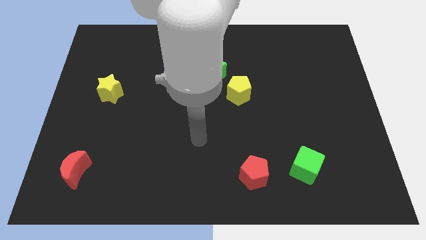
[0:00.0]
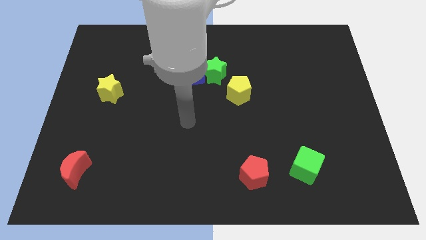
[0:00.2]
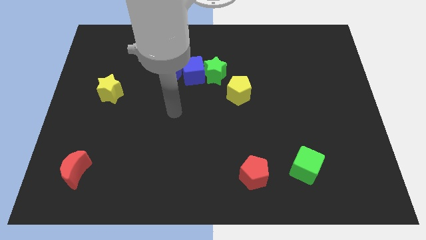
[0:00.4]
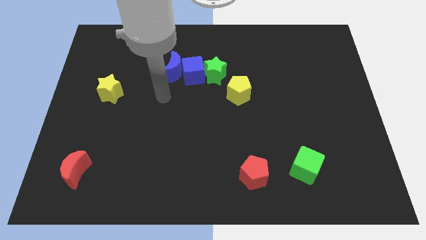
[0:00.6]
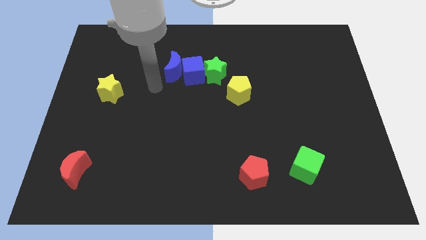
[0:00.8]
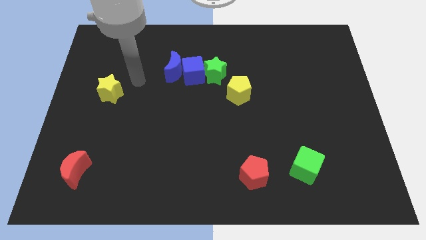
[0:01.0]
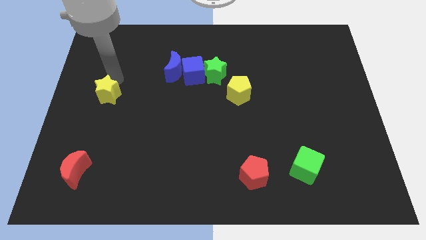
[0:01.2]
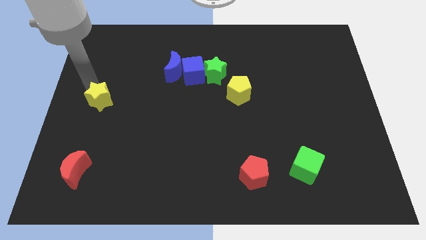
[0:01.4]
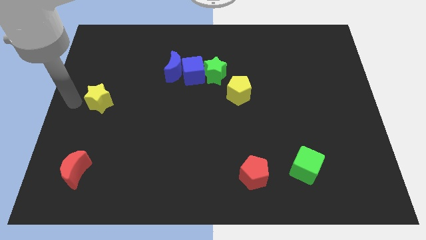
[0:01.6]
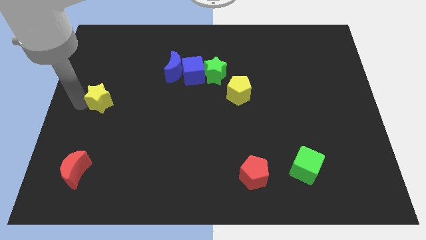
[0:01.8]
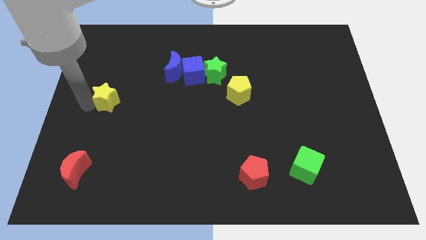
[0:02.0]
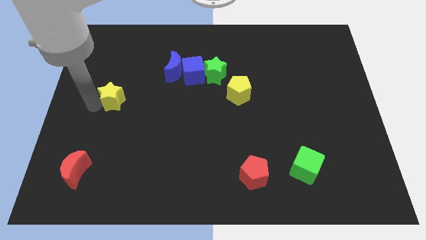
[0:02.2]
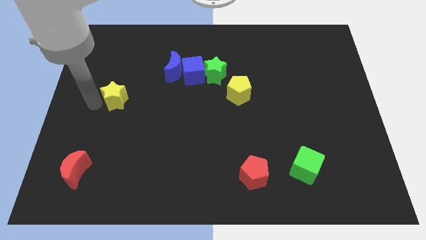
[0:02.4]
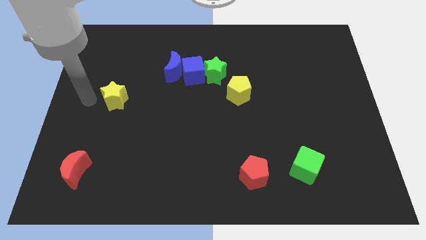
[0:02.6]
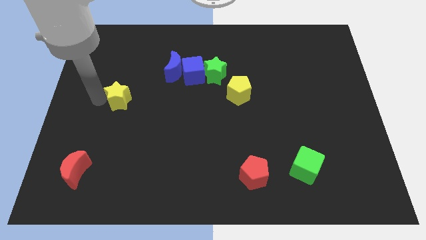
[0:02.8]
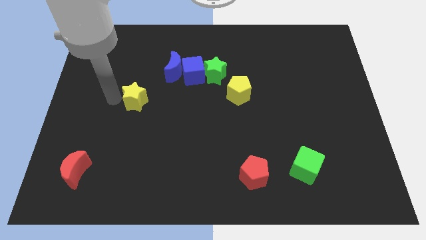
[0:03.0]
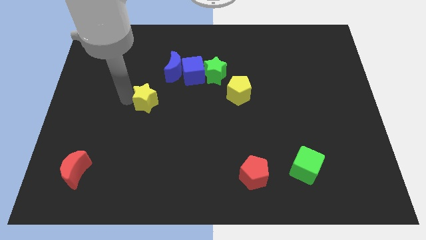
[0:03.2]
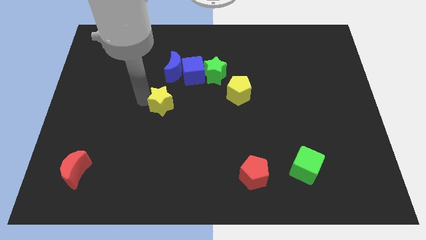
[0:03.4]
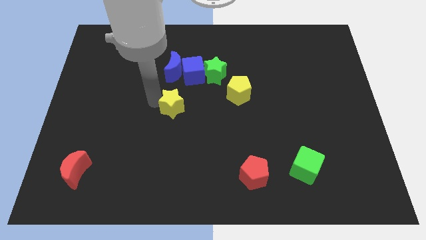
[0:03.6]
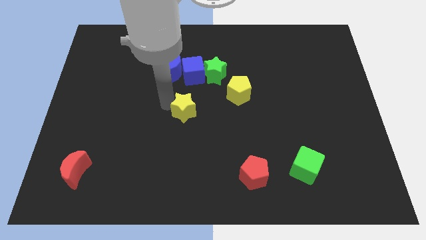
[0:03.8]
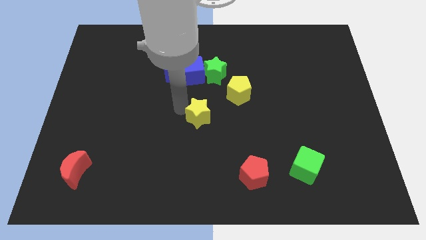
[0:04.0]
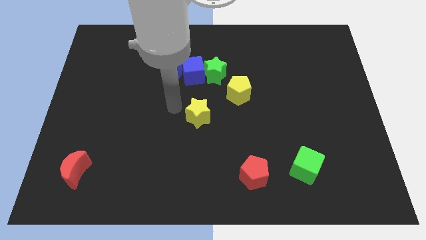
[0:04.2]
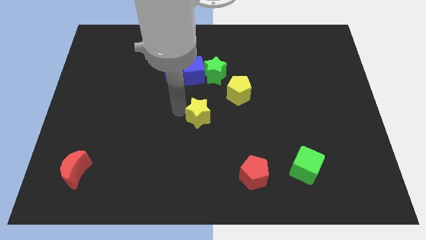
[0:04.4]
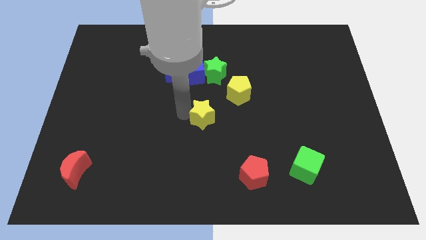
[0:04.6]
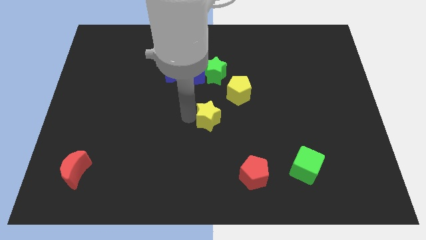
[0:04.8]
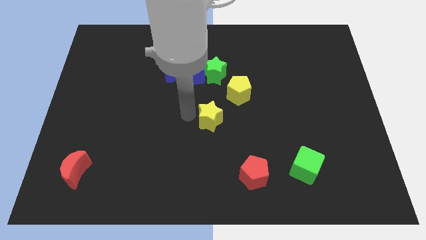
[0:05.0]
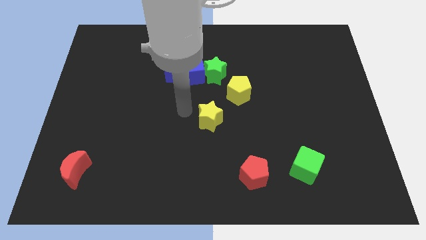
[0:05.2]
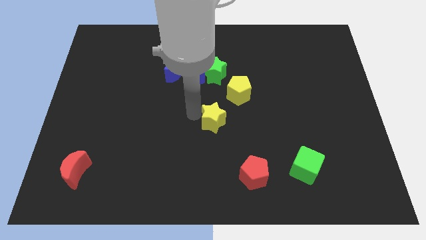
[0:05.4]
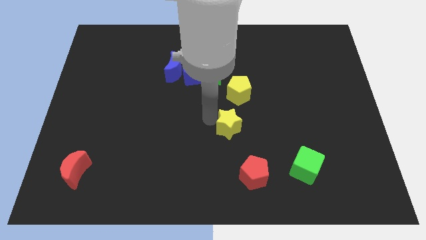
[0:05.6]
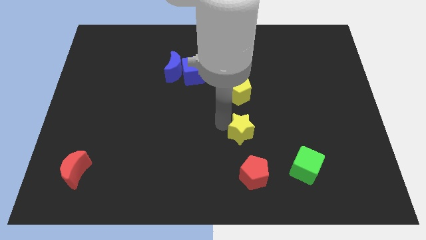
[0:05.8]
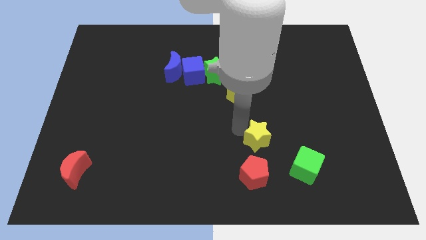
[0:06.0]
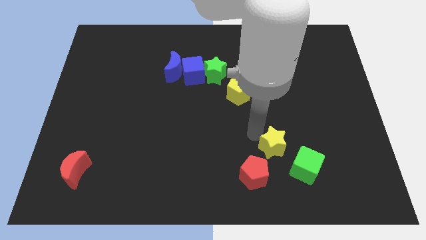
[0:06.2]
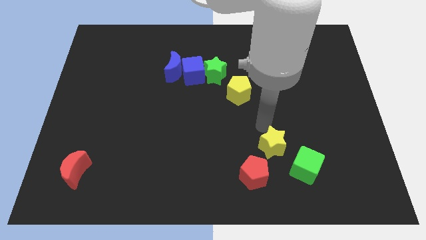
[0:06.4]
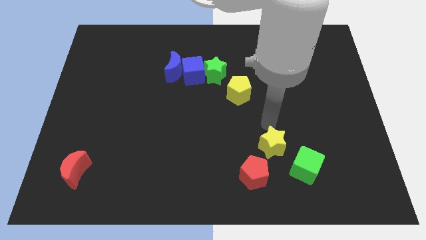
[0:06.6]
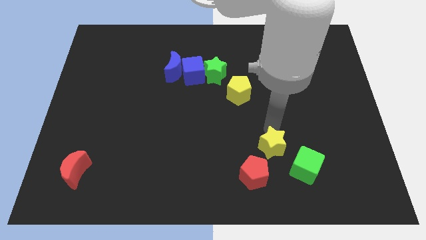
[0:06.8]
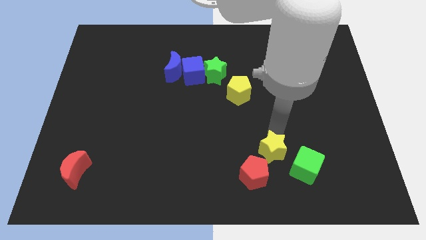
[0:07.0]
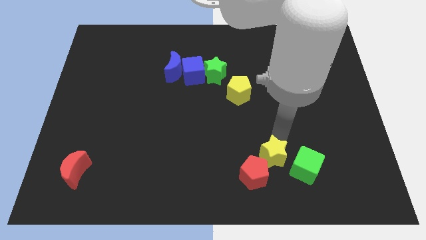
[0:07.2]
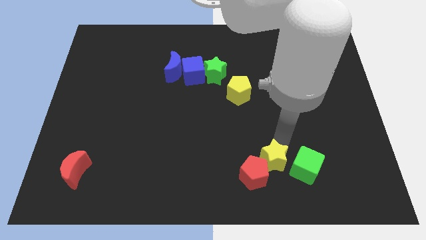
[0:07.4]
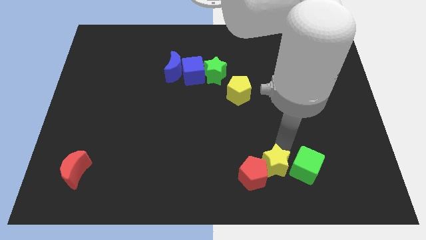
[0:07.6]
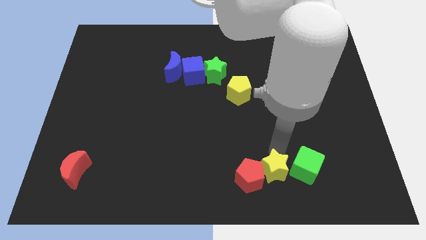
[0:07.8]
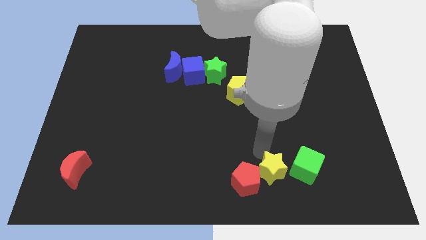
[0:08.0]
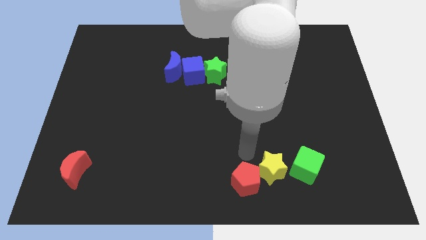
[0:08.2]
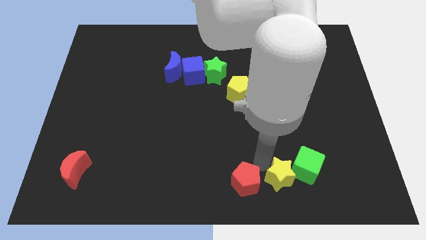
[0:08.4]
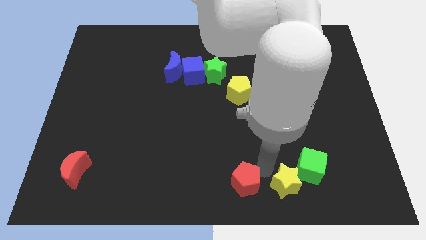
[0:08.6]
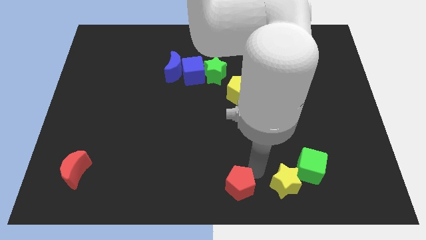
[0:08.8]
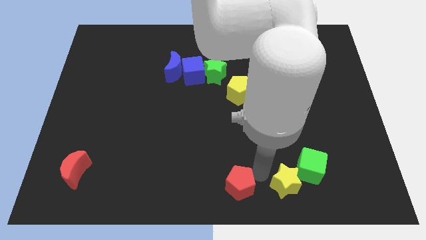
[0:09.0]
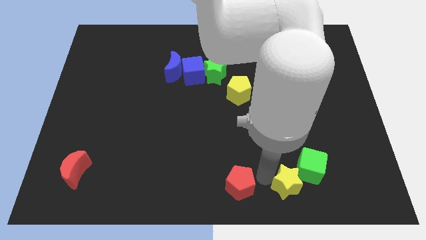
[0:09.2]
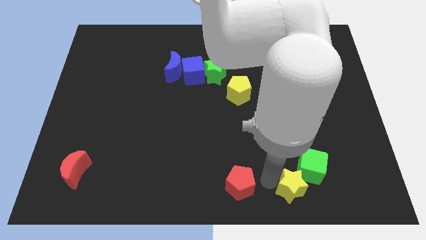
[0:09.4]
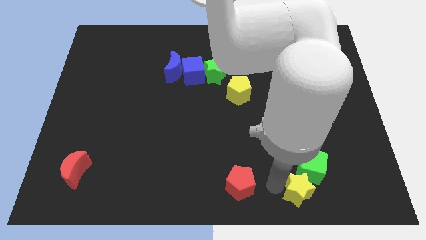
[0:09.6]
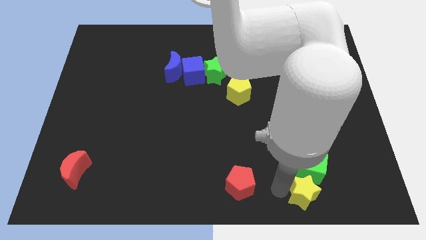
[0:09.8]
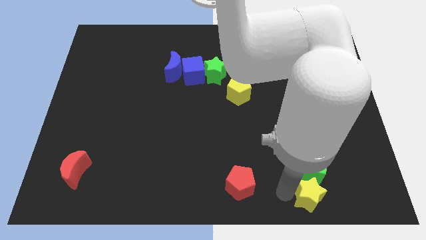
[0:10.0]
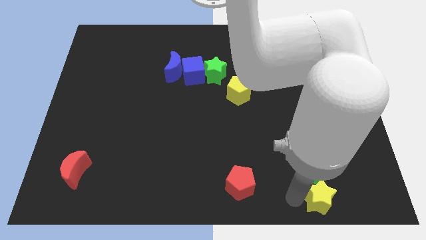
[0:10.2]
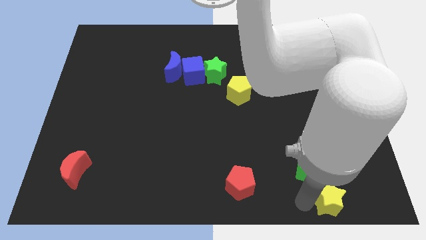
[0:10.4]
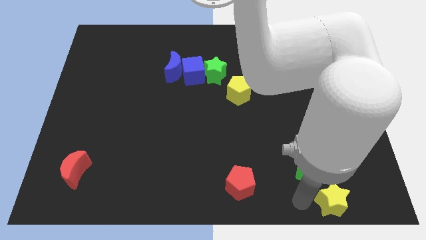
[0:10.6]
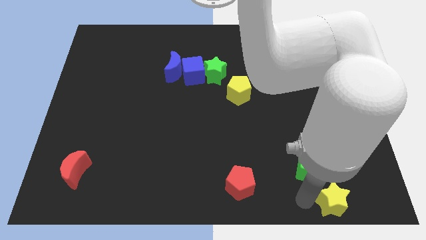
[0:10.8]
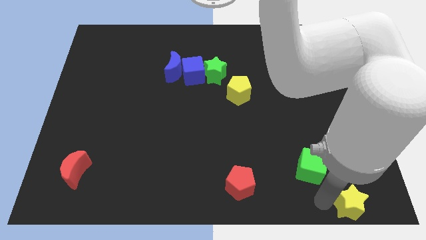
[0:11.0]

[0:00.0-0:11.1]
put the yellow star to the bottom right of the board

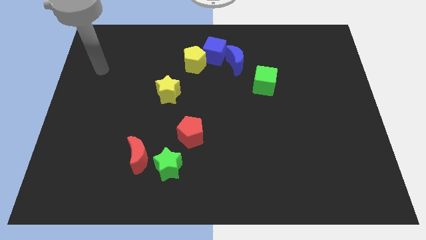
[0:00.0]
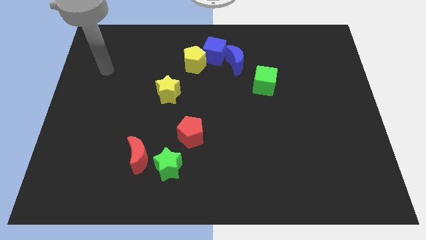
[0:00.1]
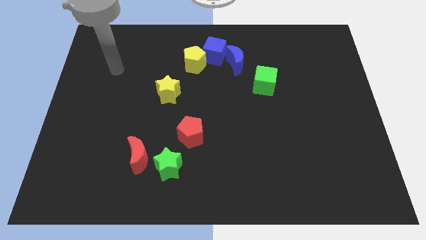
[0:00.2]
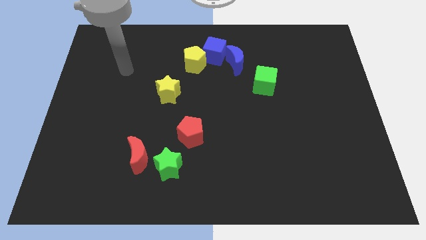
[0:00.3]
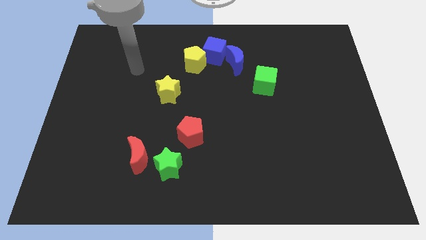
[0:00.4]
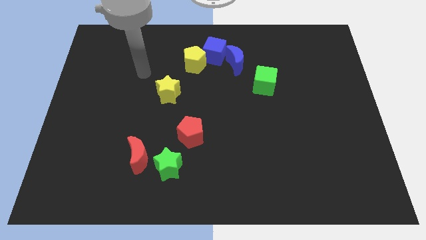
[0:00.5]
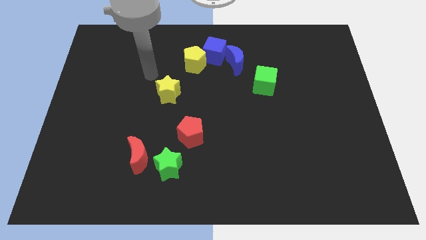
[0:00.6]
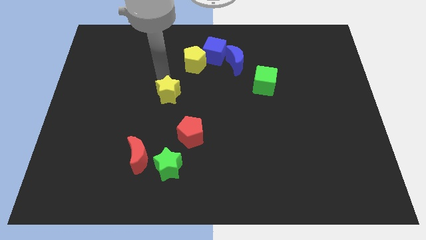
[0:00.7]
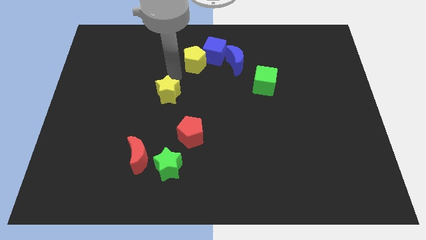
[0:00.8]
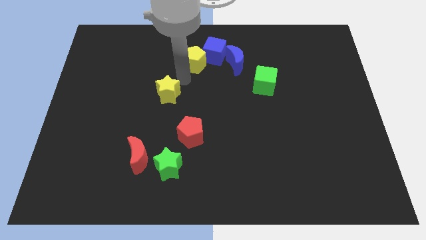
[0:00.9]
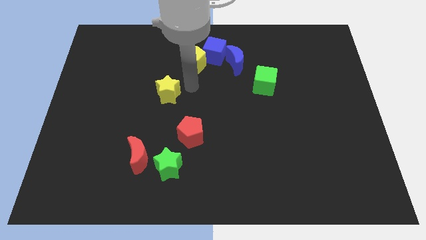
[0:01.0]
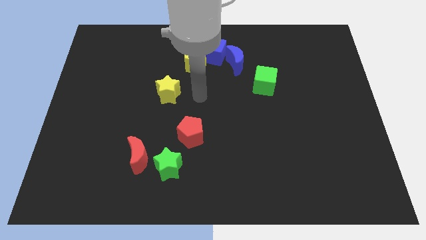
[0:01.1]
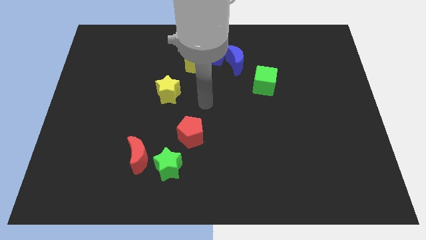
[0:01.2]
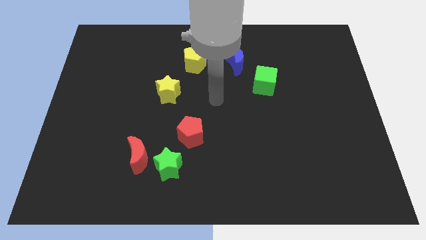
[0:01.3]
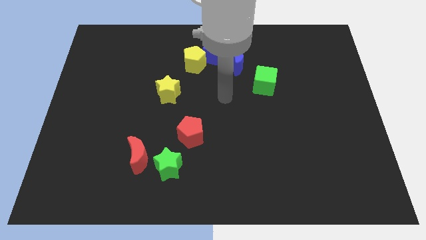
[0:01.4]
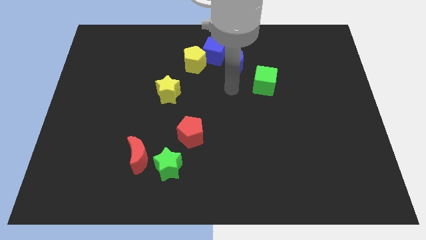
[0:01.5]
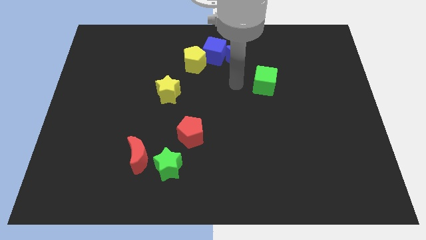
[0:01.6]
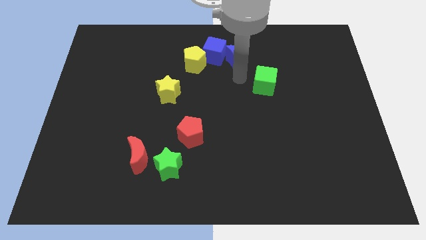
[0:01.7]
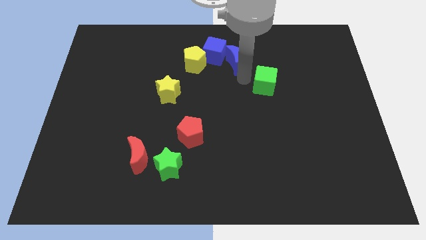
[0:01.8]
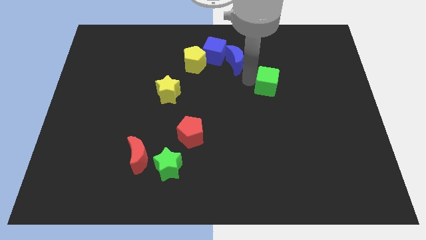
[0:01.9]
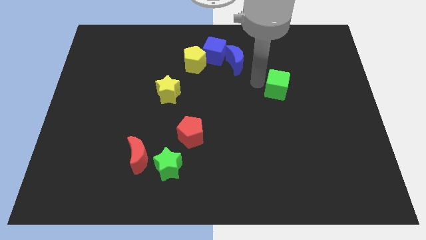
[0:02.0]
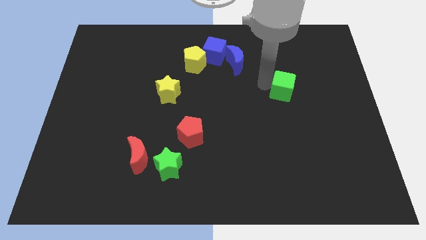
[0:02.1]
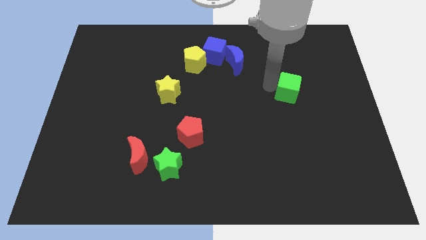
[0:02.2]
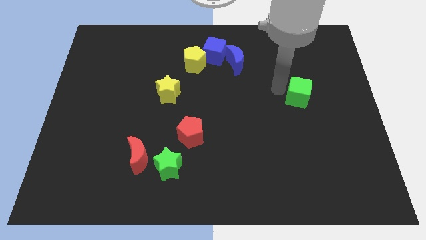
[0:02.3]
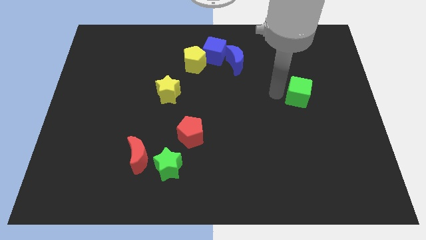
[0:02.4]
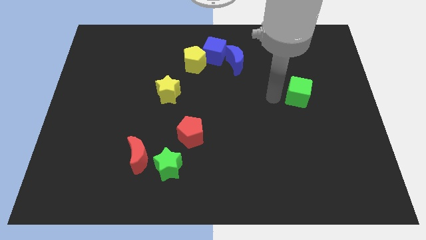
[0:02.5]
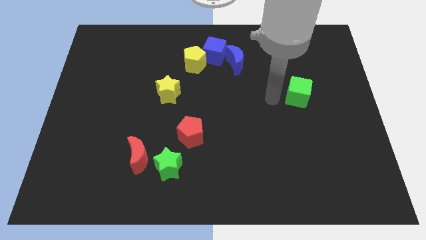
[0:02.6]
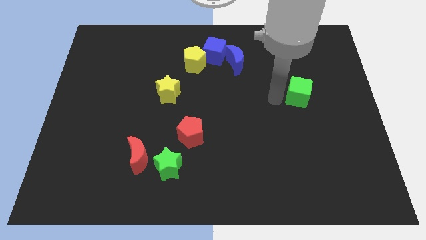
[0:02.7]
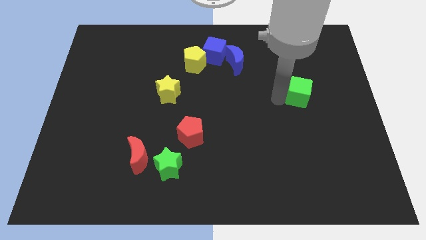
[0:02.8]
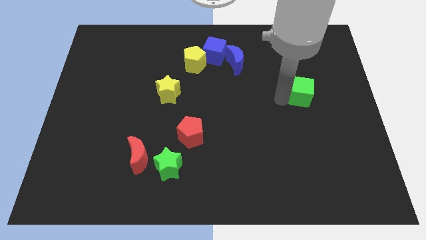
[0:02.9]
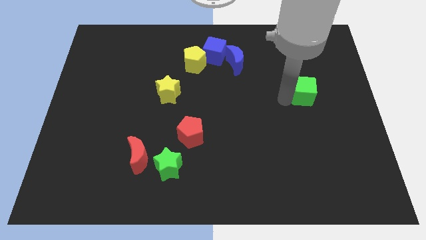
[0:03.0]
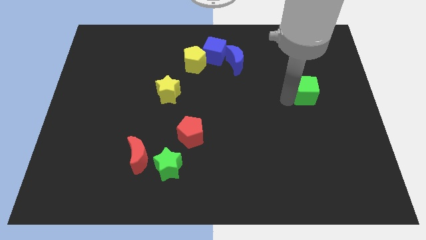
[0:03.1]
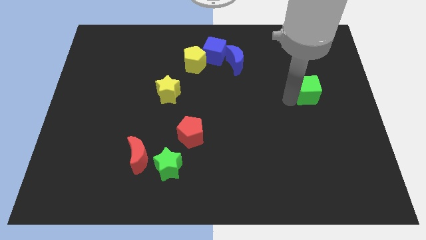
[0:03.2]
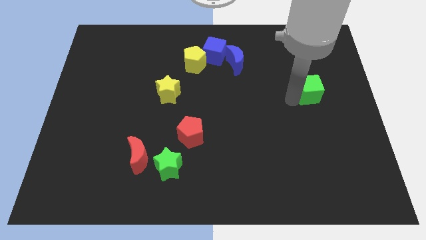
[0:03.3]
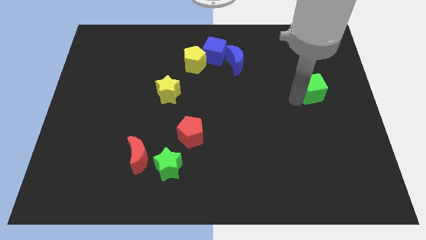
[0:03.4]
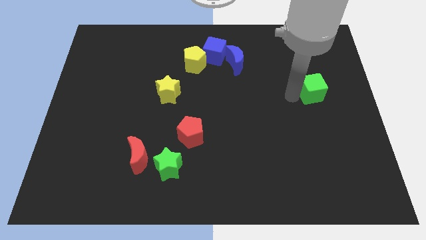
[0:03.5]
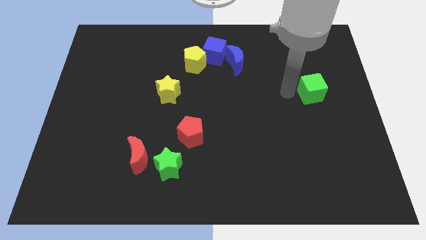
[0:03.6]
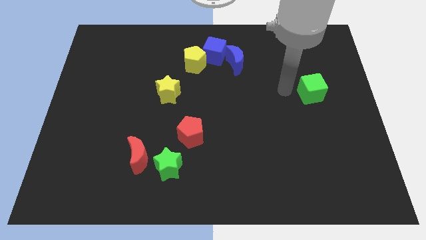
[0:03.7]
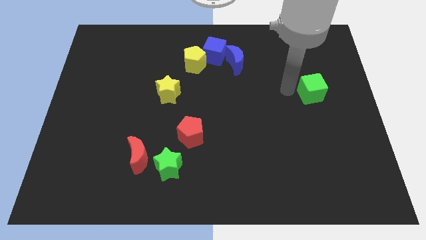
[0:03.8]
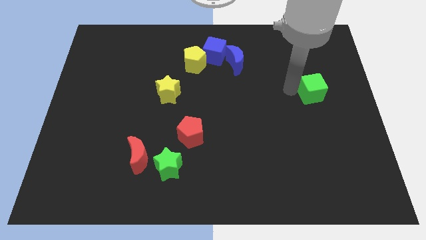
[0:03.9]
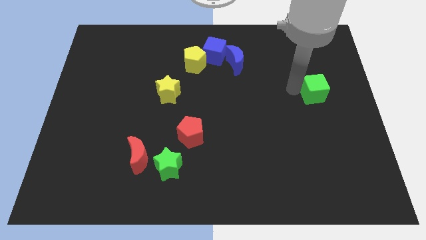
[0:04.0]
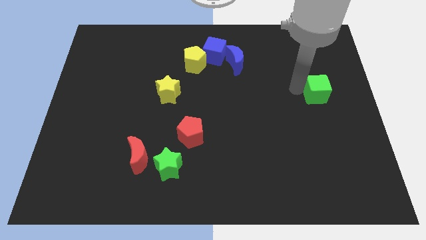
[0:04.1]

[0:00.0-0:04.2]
slide the green cube to the center right
